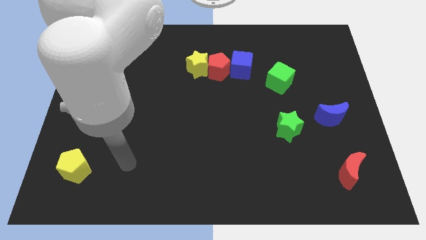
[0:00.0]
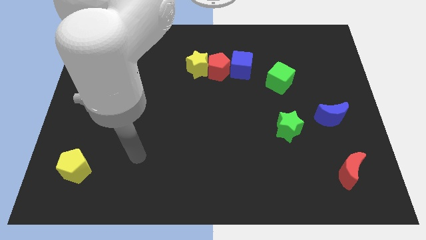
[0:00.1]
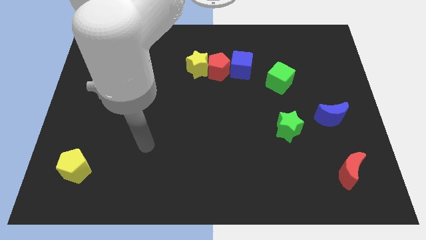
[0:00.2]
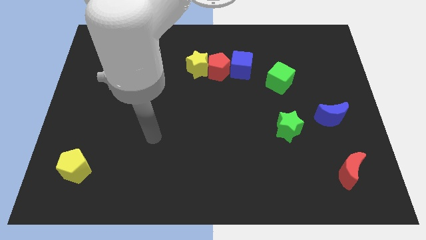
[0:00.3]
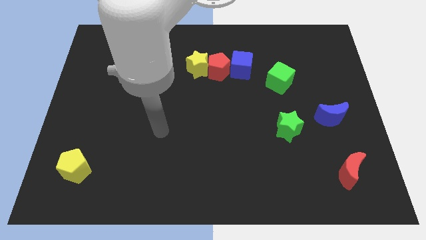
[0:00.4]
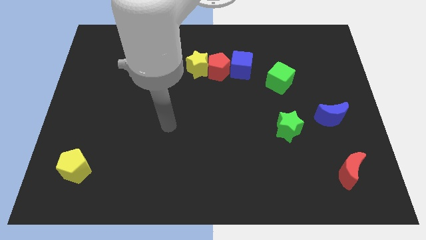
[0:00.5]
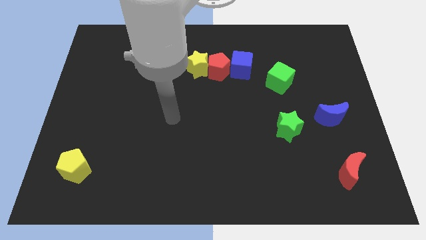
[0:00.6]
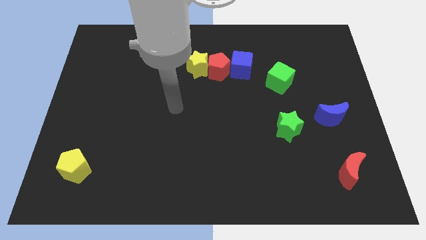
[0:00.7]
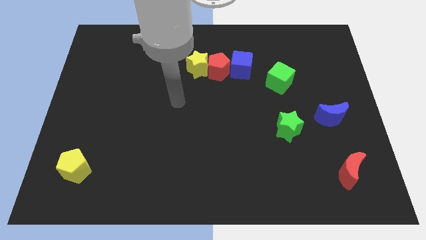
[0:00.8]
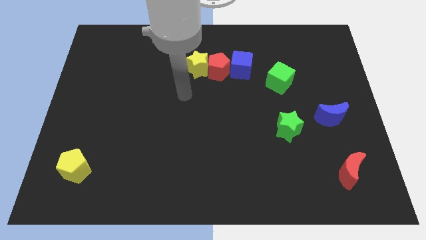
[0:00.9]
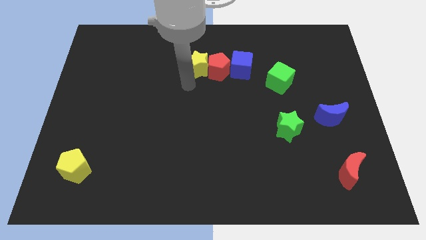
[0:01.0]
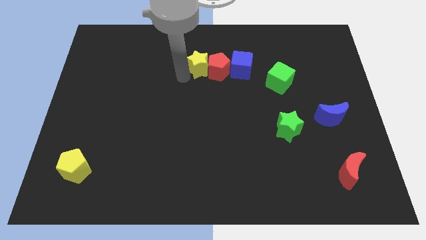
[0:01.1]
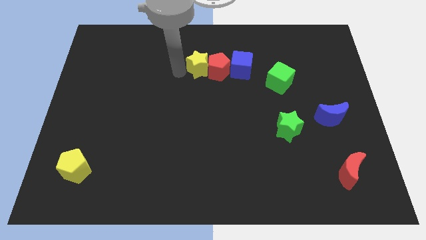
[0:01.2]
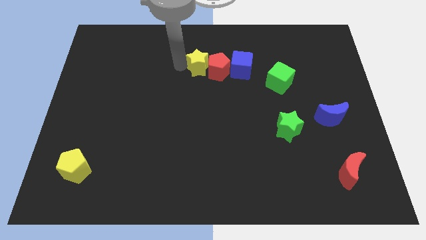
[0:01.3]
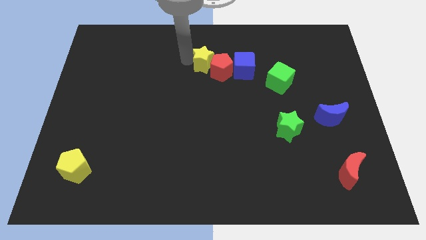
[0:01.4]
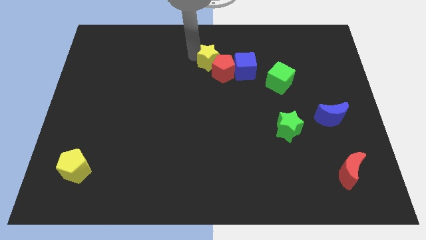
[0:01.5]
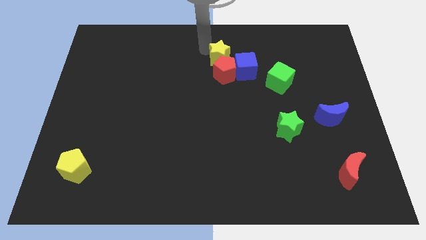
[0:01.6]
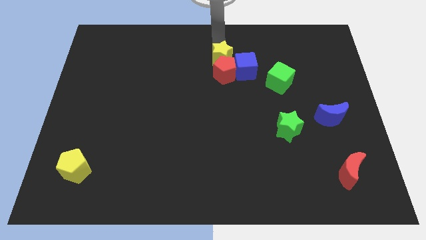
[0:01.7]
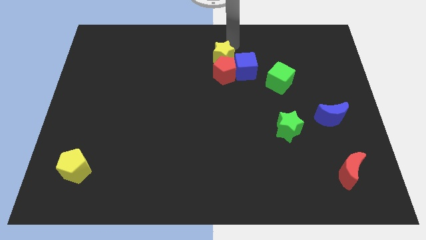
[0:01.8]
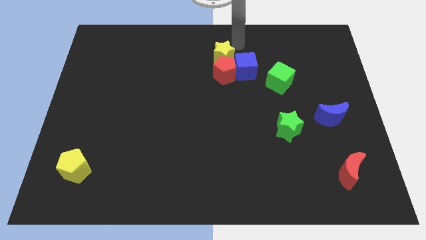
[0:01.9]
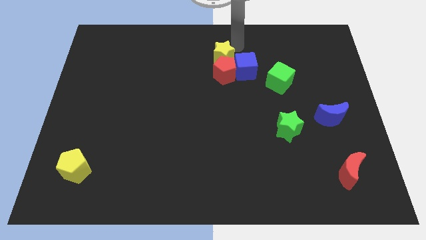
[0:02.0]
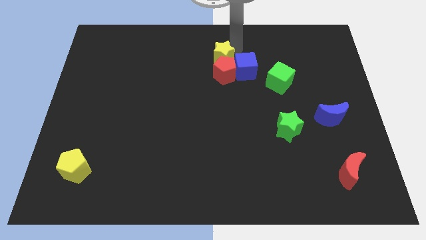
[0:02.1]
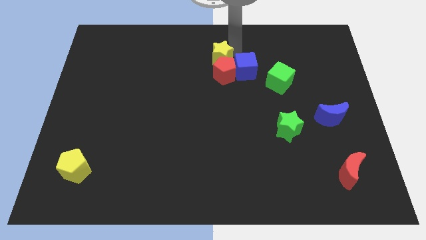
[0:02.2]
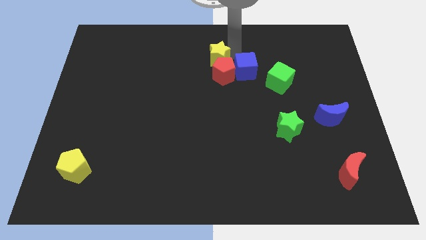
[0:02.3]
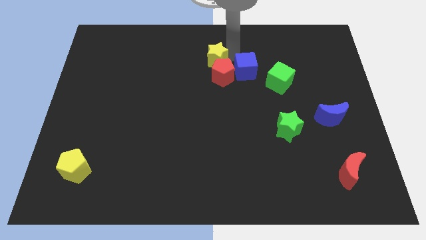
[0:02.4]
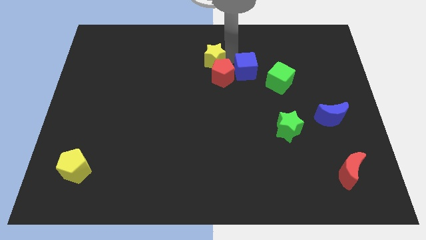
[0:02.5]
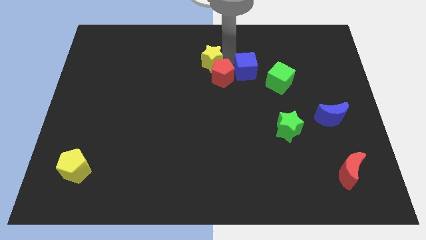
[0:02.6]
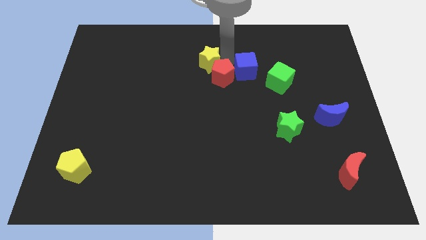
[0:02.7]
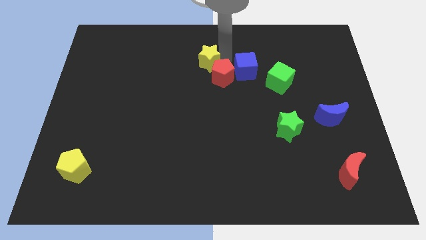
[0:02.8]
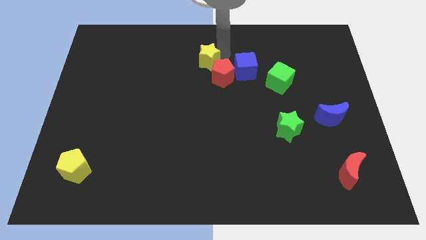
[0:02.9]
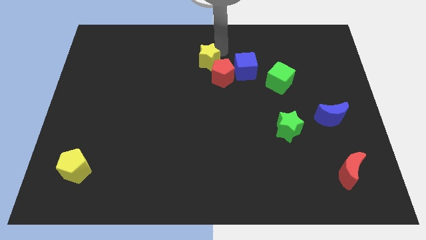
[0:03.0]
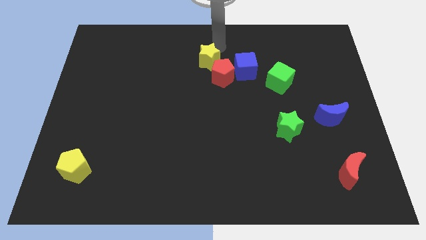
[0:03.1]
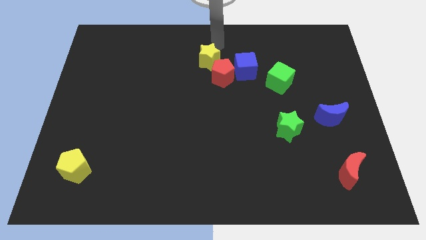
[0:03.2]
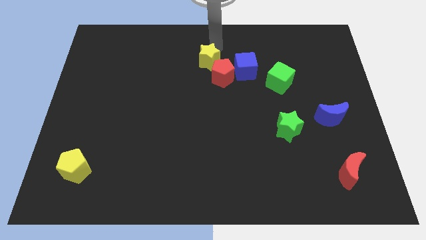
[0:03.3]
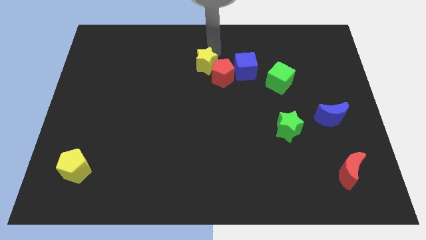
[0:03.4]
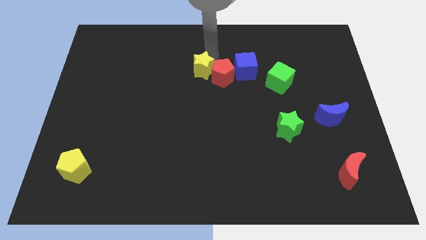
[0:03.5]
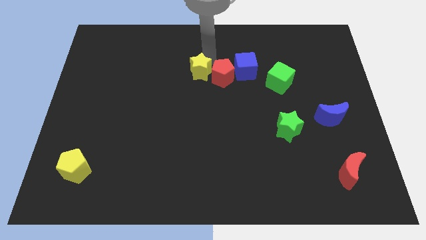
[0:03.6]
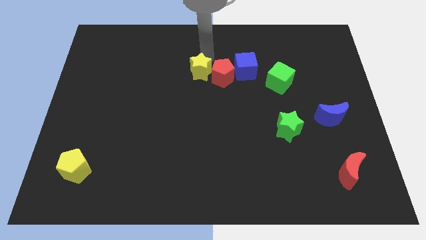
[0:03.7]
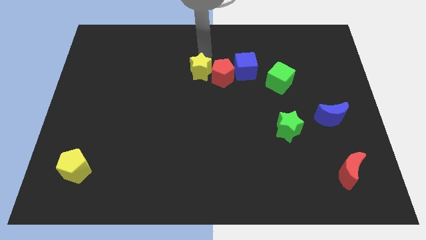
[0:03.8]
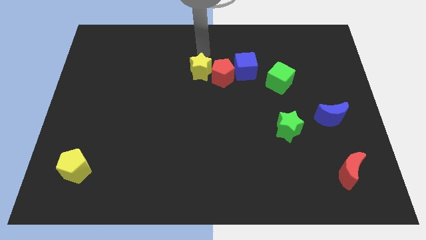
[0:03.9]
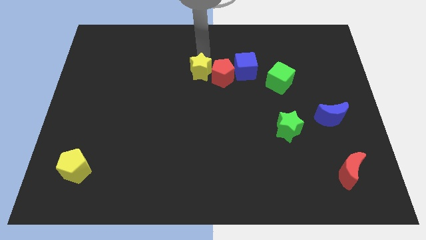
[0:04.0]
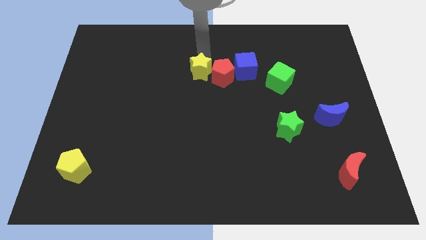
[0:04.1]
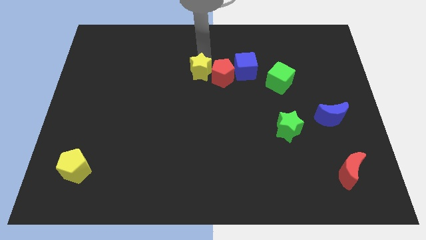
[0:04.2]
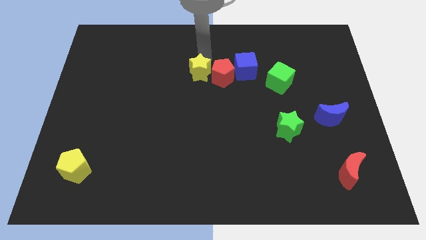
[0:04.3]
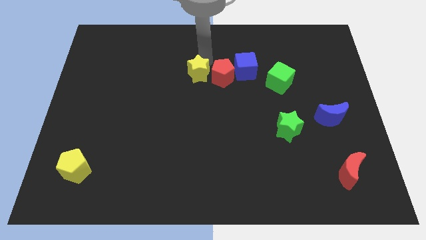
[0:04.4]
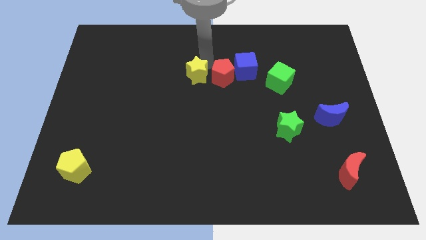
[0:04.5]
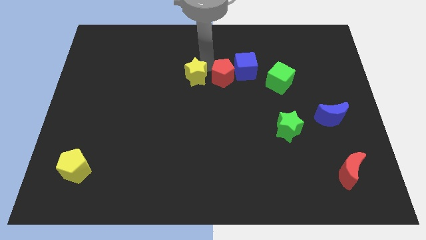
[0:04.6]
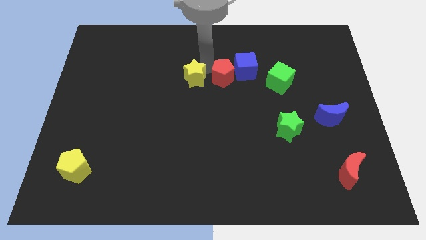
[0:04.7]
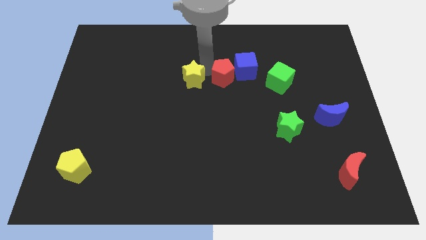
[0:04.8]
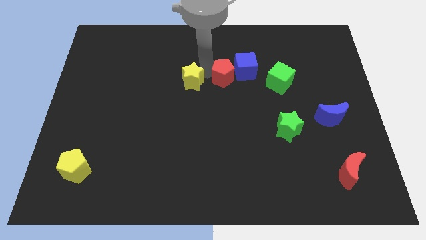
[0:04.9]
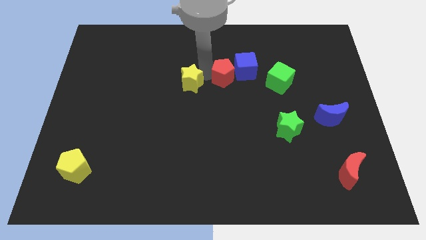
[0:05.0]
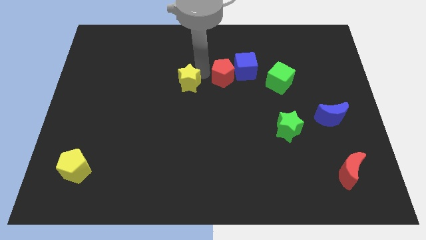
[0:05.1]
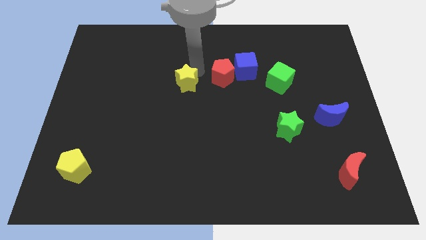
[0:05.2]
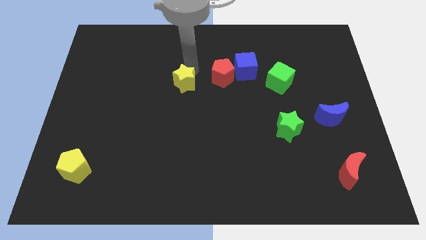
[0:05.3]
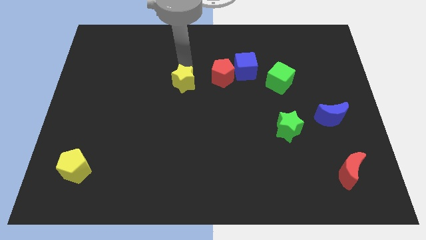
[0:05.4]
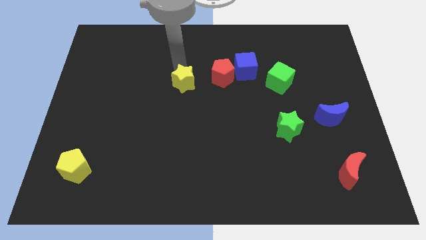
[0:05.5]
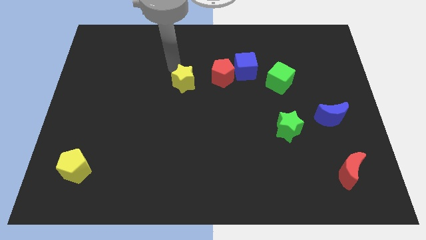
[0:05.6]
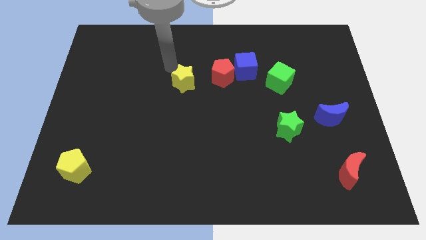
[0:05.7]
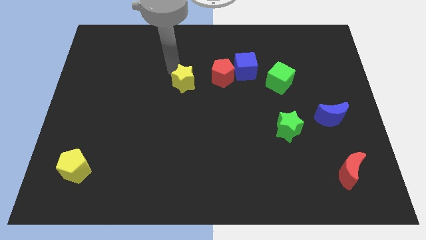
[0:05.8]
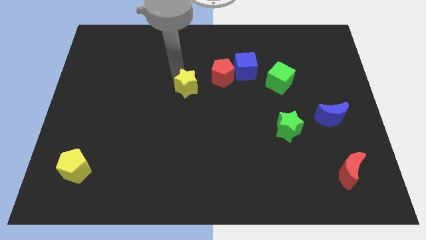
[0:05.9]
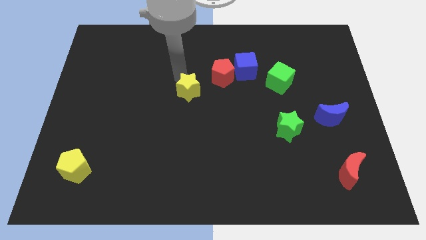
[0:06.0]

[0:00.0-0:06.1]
slightly push the yellow star downwards

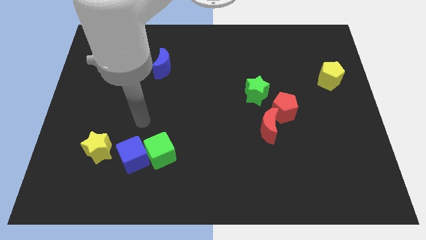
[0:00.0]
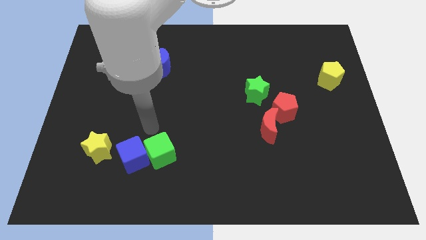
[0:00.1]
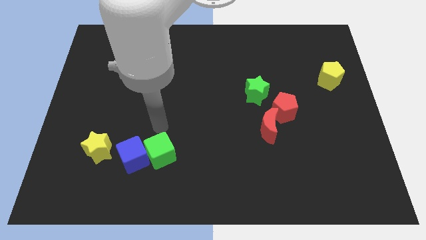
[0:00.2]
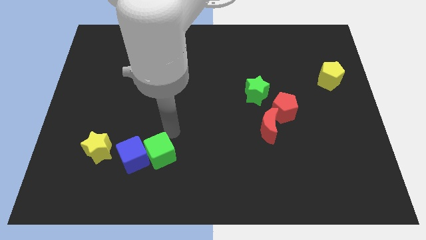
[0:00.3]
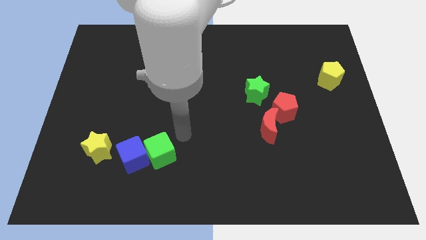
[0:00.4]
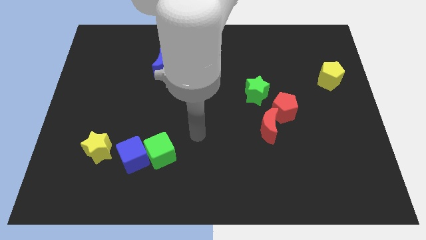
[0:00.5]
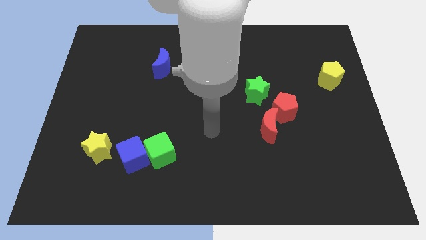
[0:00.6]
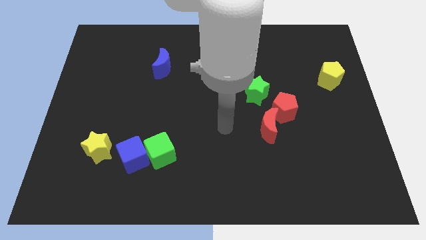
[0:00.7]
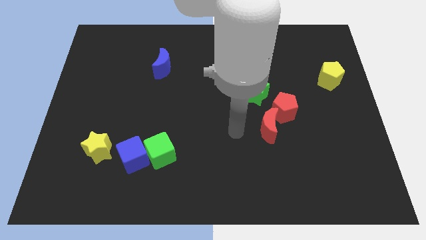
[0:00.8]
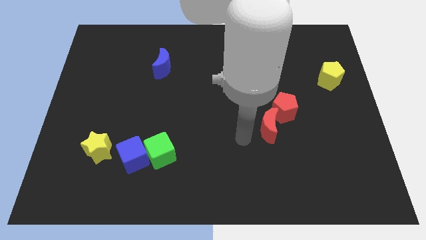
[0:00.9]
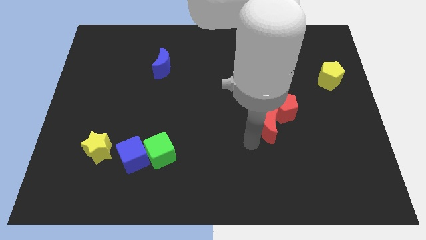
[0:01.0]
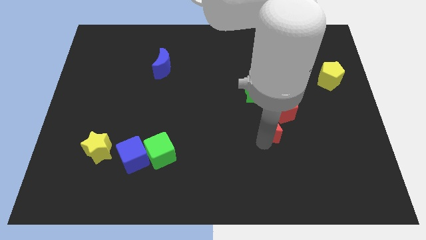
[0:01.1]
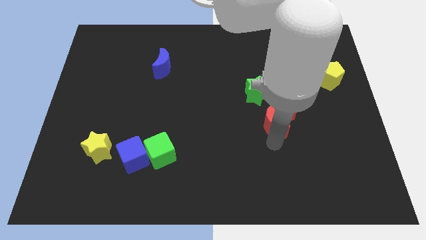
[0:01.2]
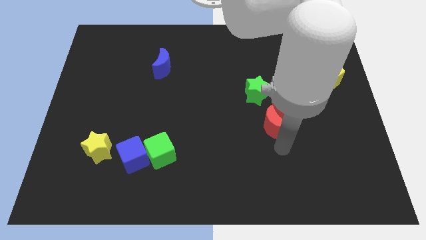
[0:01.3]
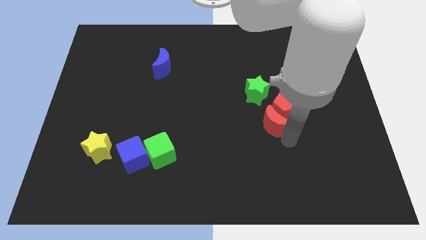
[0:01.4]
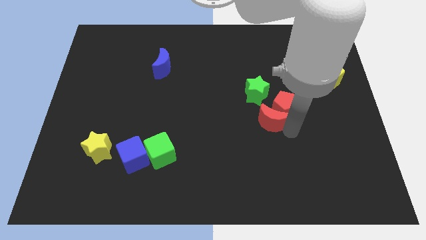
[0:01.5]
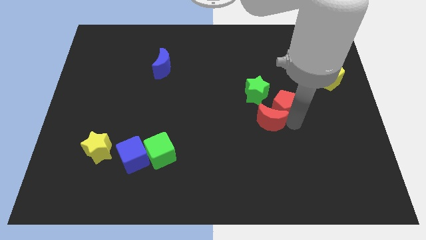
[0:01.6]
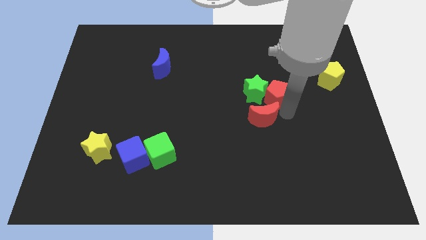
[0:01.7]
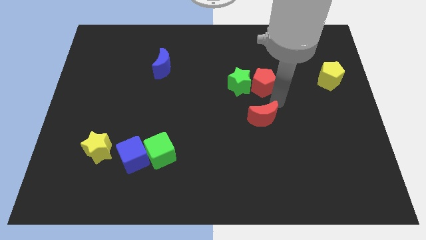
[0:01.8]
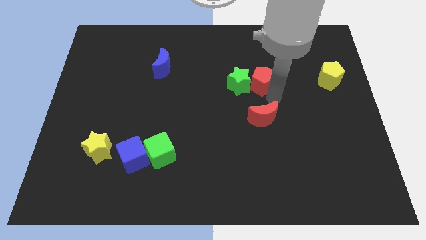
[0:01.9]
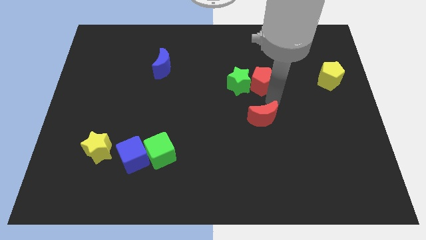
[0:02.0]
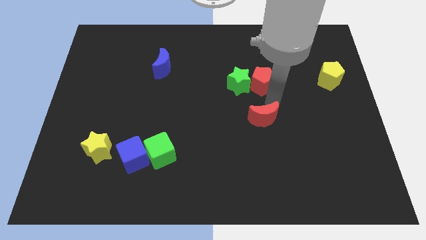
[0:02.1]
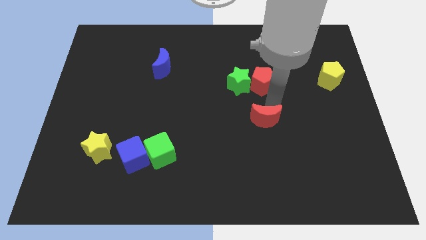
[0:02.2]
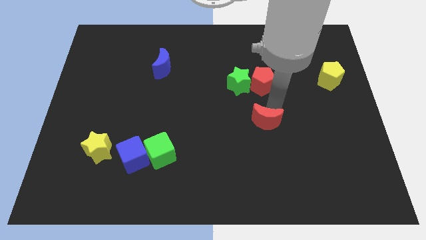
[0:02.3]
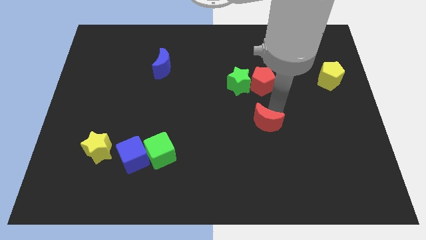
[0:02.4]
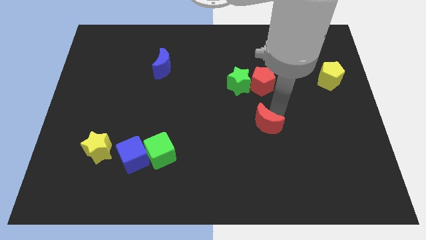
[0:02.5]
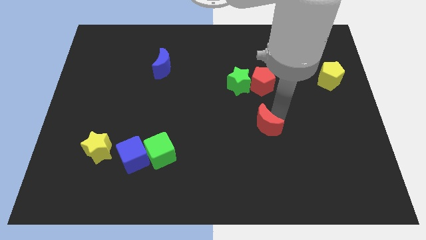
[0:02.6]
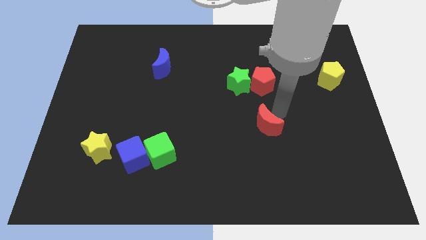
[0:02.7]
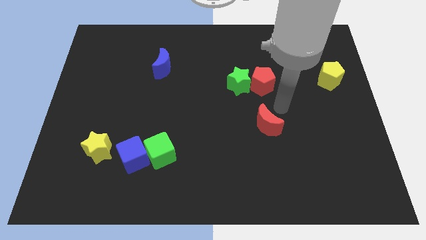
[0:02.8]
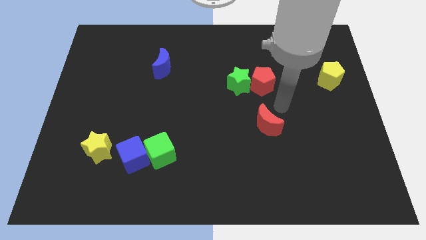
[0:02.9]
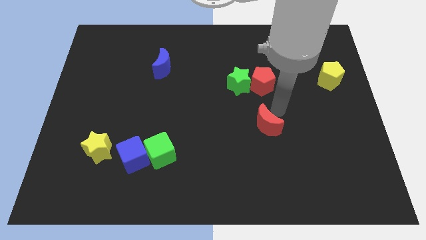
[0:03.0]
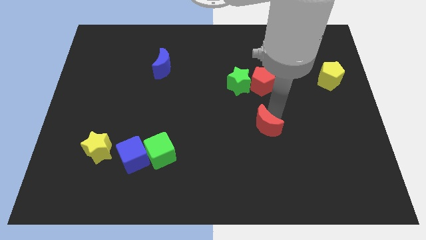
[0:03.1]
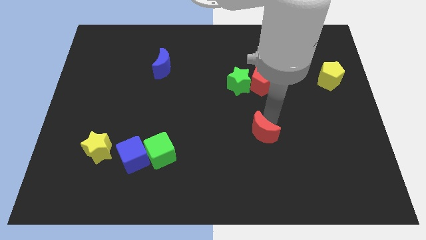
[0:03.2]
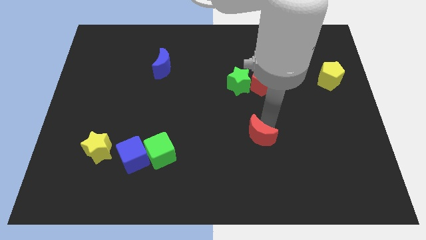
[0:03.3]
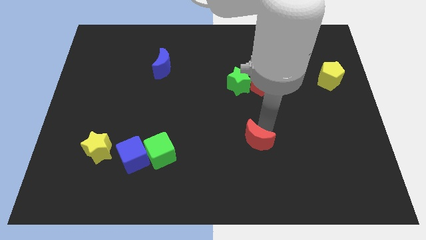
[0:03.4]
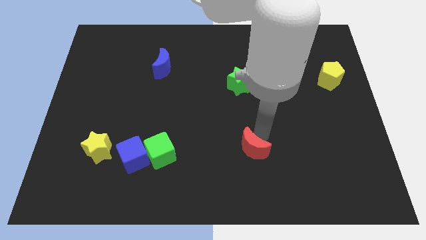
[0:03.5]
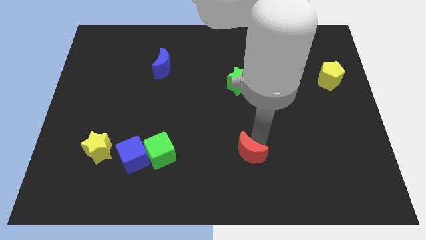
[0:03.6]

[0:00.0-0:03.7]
push the red moon downwards and to the left a little
